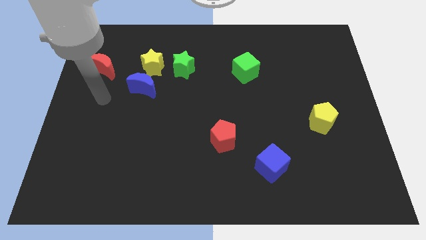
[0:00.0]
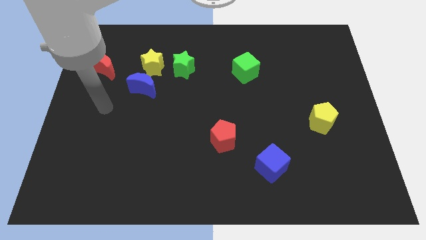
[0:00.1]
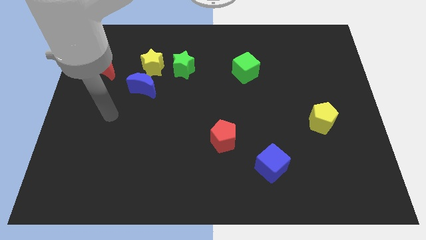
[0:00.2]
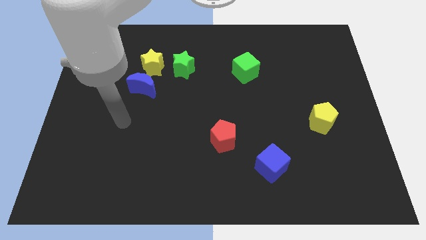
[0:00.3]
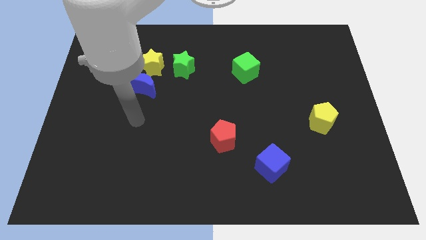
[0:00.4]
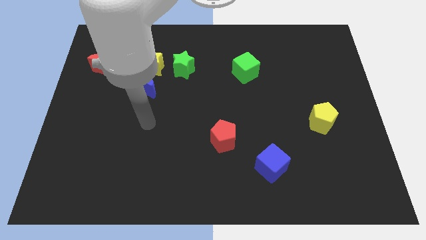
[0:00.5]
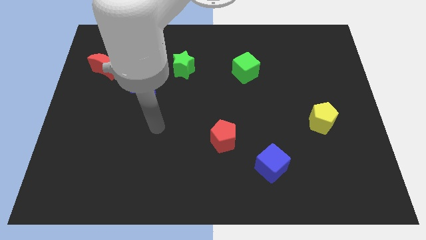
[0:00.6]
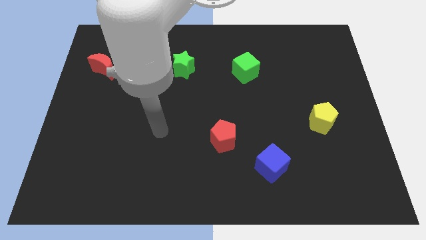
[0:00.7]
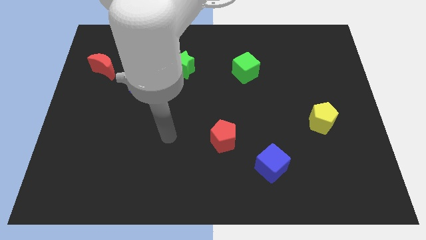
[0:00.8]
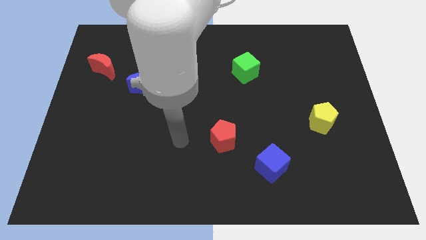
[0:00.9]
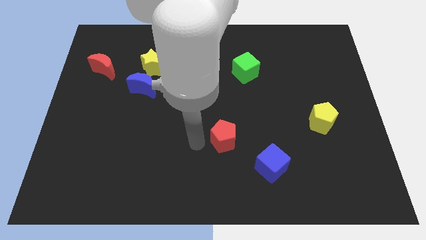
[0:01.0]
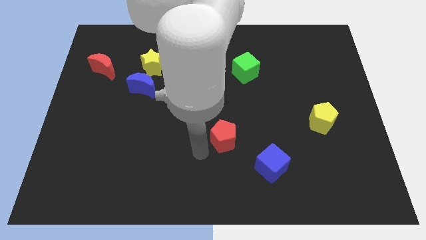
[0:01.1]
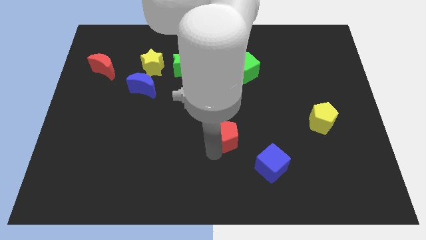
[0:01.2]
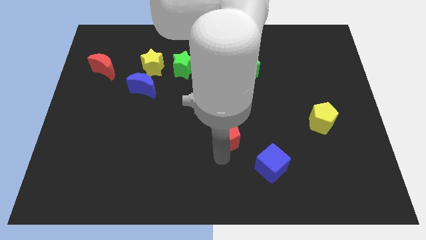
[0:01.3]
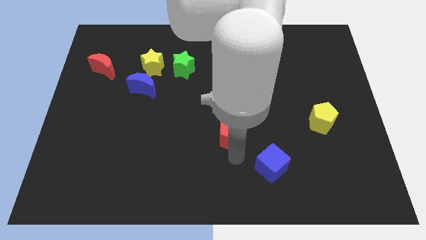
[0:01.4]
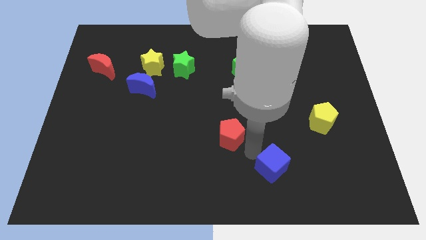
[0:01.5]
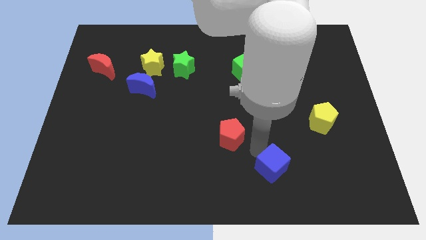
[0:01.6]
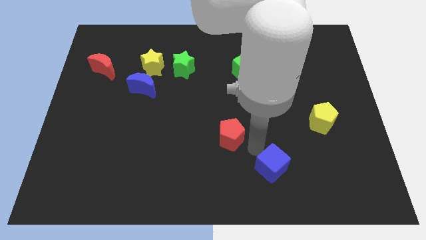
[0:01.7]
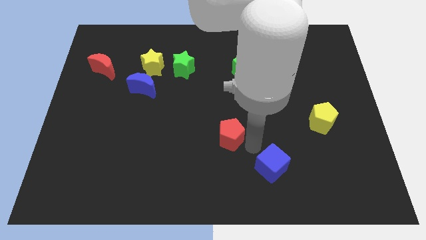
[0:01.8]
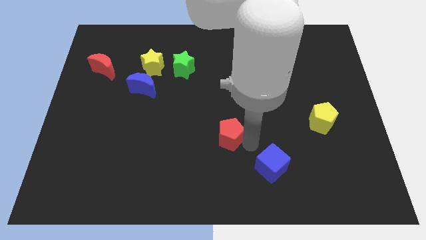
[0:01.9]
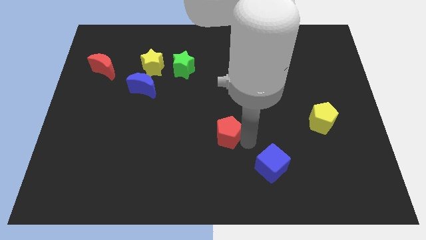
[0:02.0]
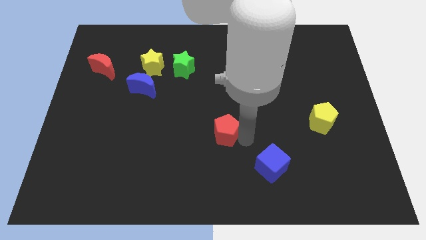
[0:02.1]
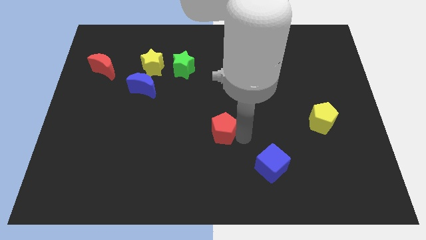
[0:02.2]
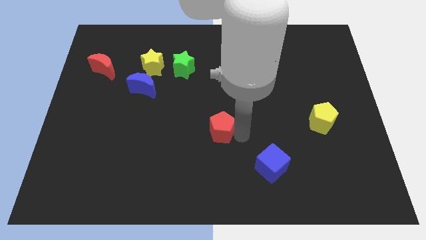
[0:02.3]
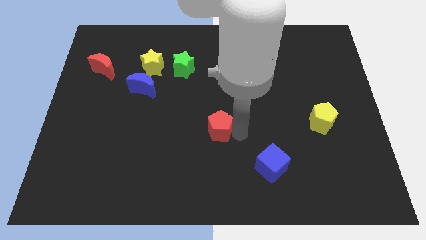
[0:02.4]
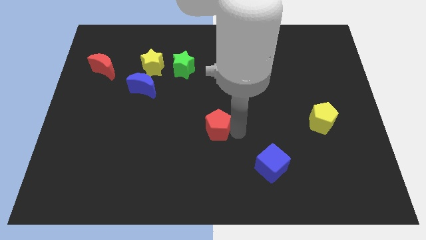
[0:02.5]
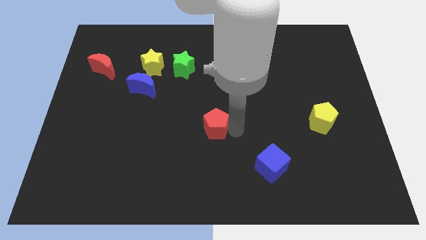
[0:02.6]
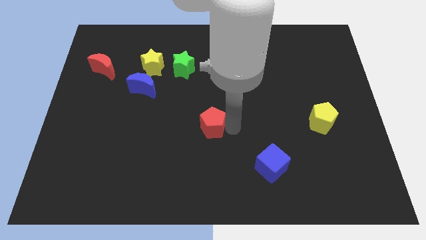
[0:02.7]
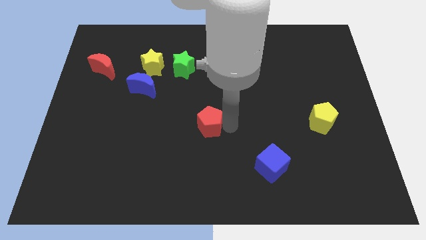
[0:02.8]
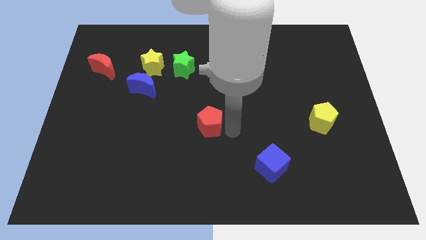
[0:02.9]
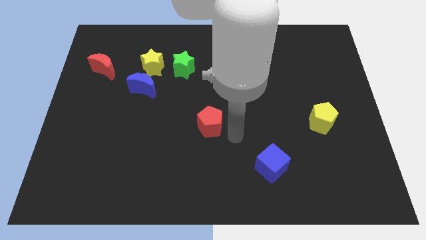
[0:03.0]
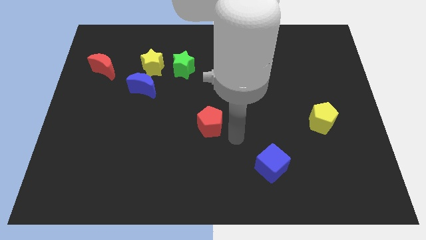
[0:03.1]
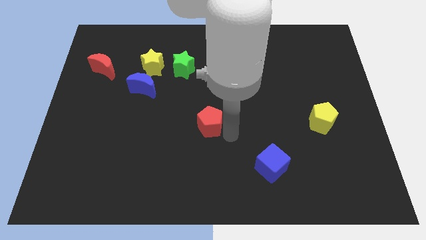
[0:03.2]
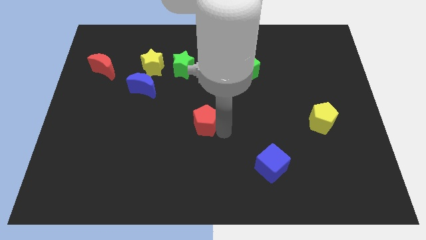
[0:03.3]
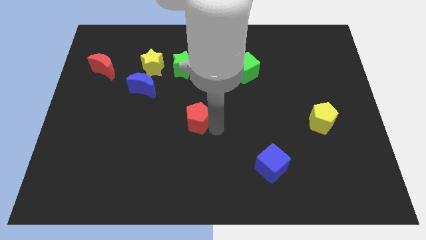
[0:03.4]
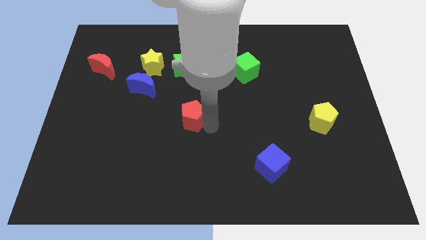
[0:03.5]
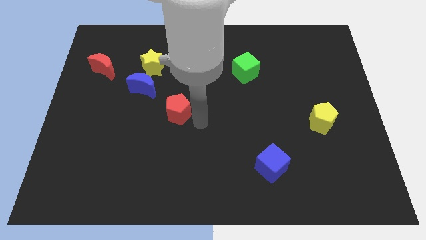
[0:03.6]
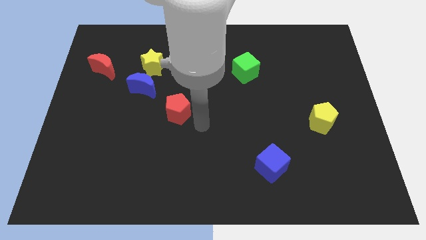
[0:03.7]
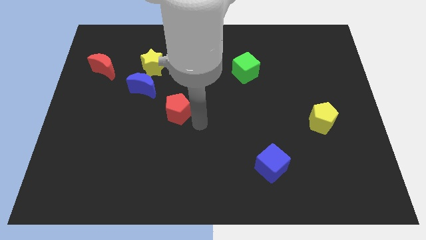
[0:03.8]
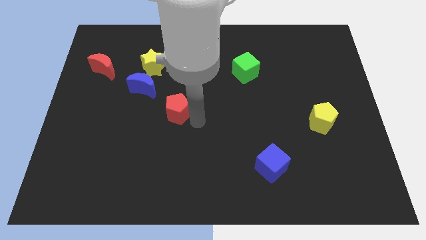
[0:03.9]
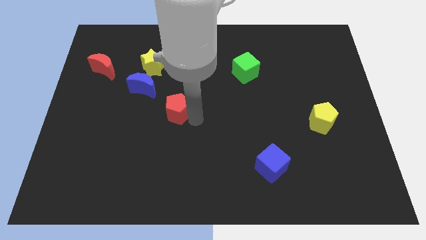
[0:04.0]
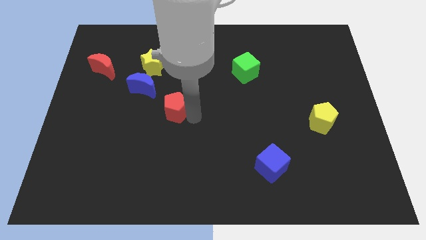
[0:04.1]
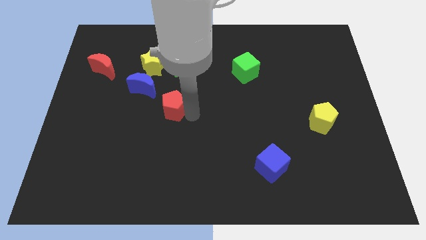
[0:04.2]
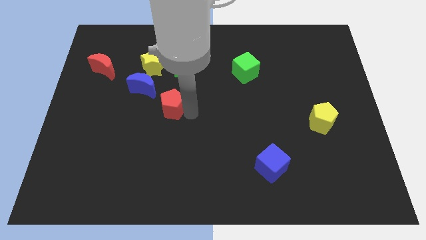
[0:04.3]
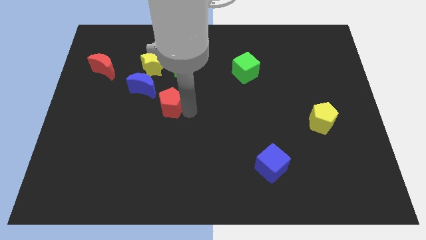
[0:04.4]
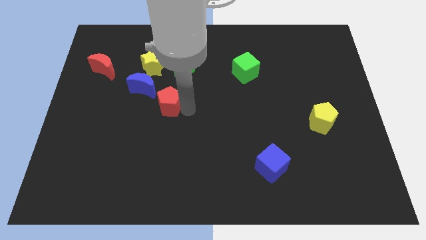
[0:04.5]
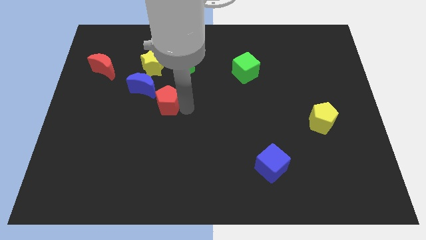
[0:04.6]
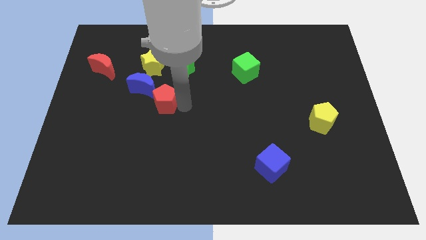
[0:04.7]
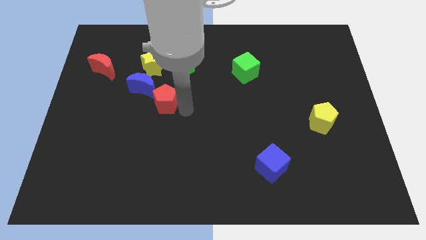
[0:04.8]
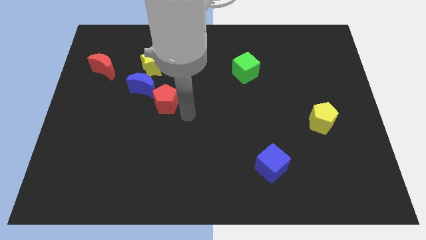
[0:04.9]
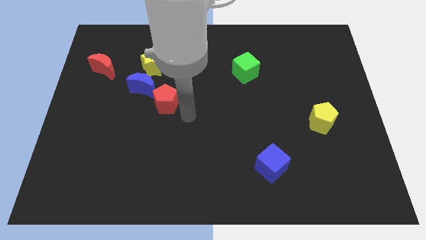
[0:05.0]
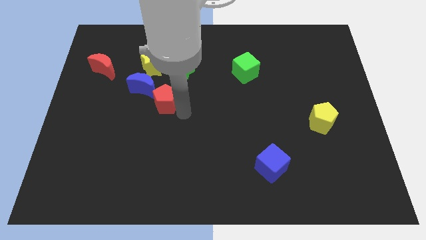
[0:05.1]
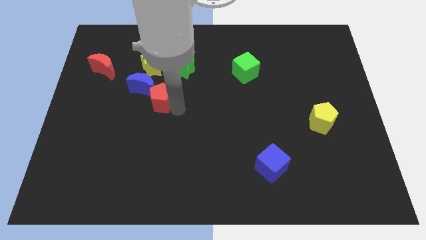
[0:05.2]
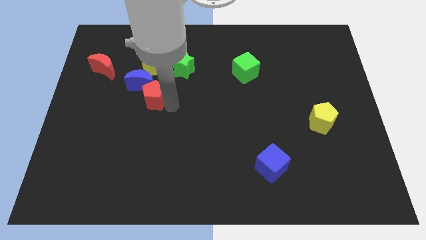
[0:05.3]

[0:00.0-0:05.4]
slide the red pentagon to the blue moon

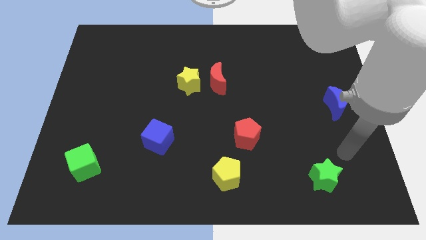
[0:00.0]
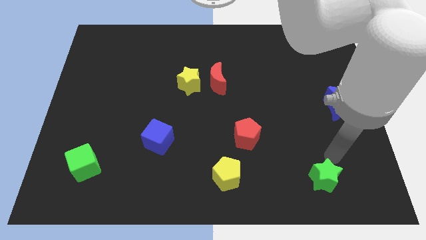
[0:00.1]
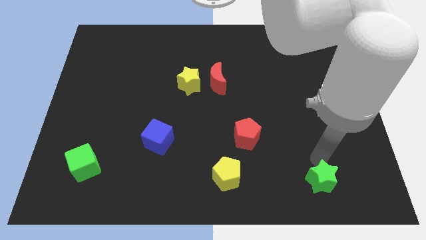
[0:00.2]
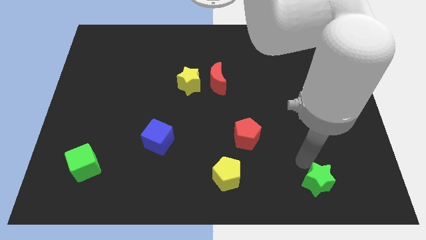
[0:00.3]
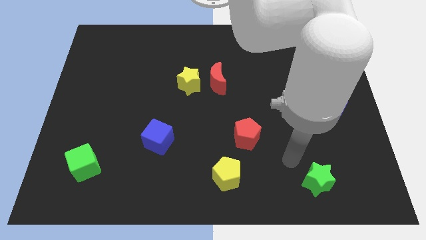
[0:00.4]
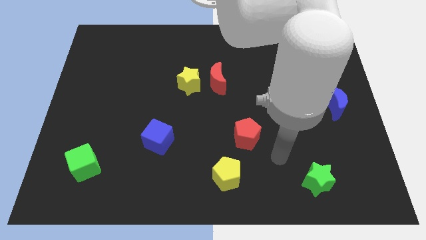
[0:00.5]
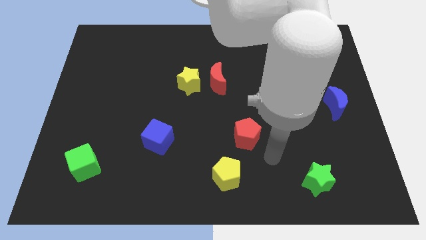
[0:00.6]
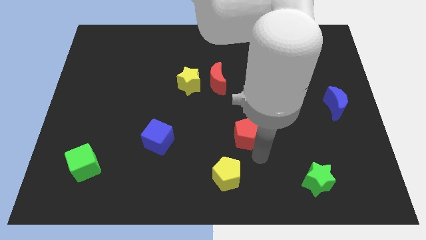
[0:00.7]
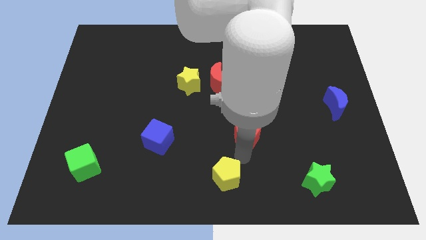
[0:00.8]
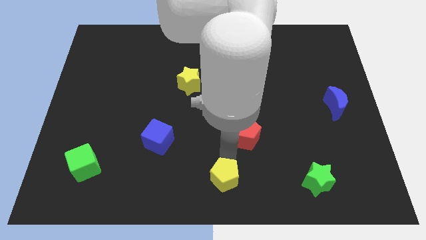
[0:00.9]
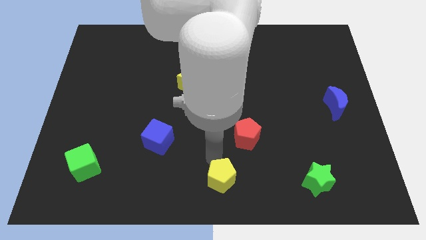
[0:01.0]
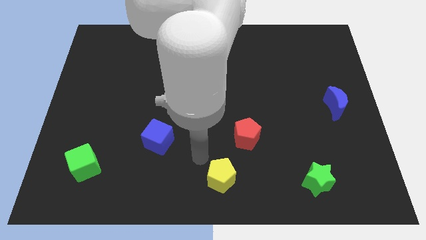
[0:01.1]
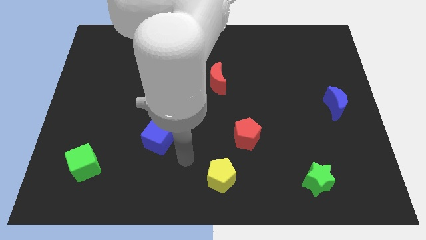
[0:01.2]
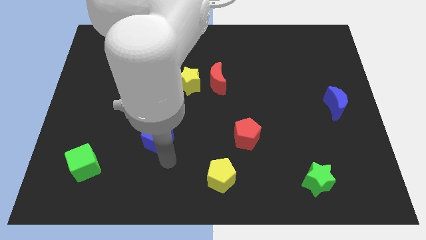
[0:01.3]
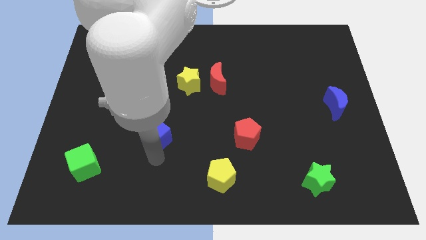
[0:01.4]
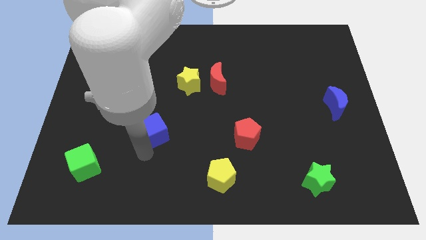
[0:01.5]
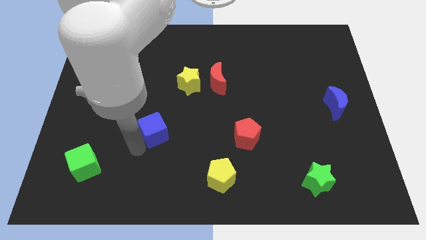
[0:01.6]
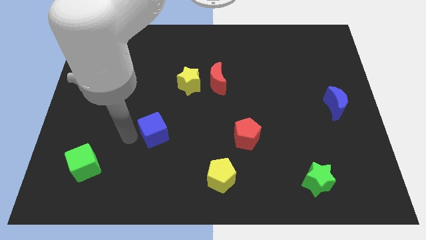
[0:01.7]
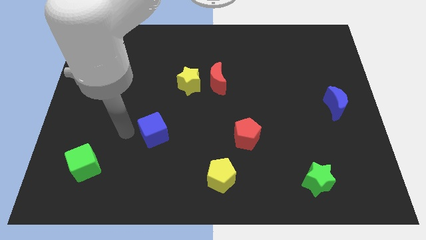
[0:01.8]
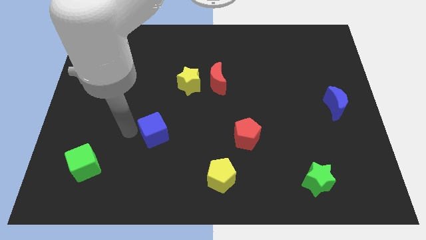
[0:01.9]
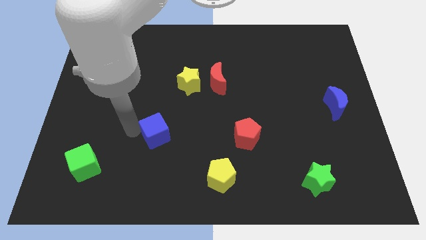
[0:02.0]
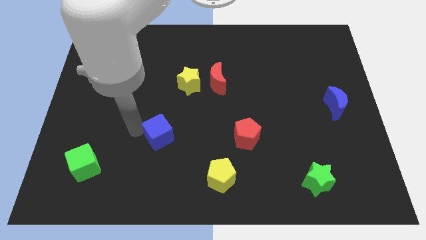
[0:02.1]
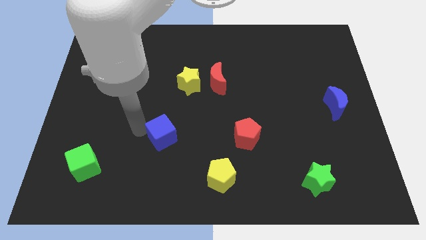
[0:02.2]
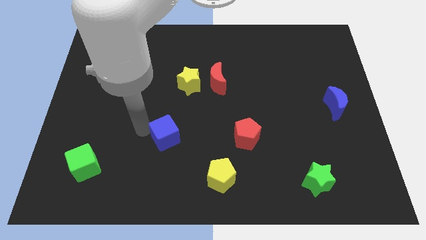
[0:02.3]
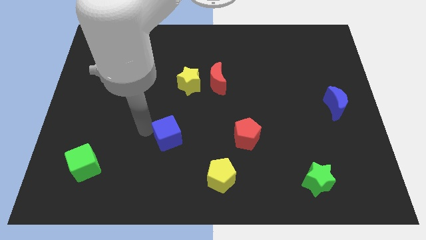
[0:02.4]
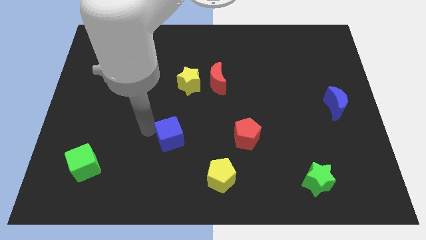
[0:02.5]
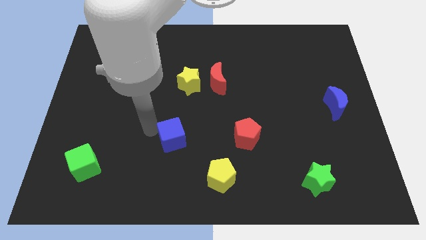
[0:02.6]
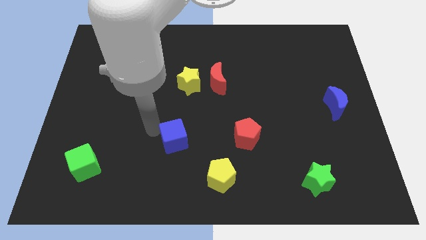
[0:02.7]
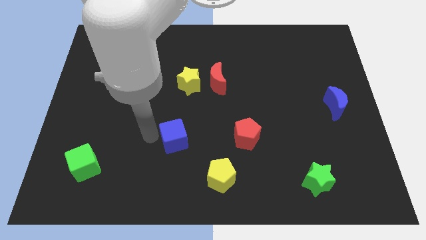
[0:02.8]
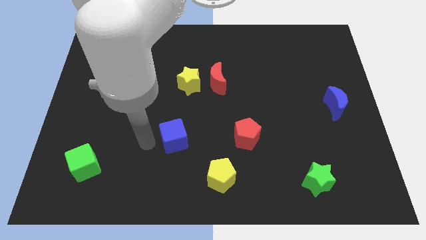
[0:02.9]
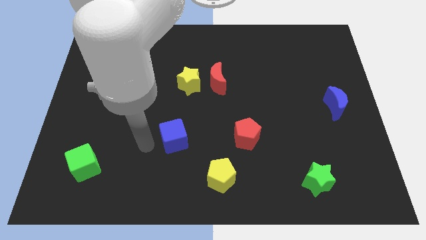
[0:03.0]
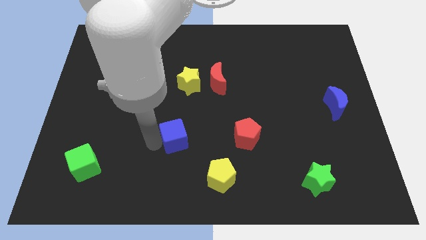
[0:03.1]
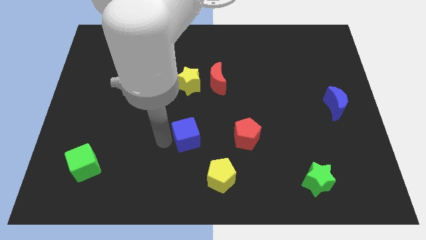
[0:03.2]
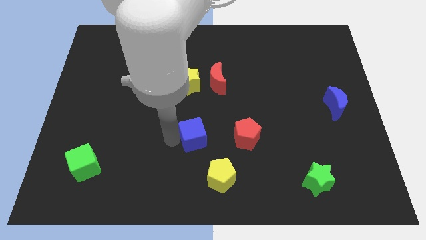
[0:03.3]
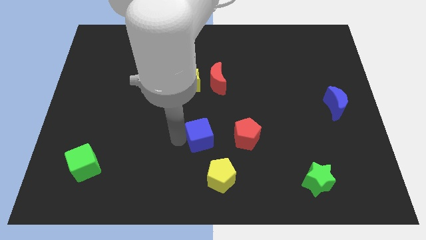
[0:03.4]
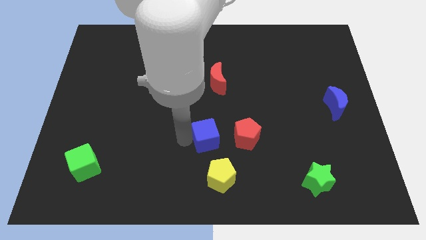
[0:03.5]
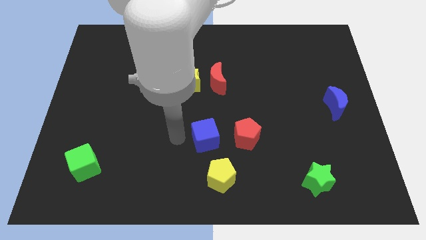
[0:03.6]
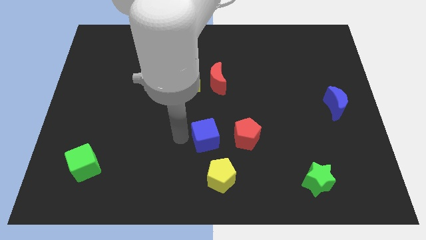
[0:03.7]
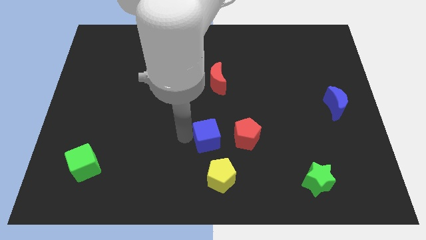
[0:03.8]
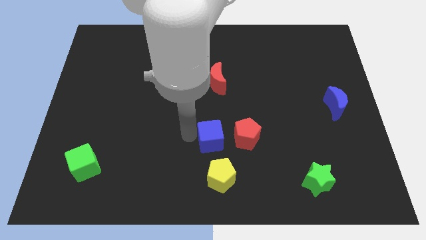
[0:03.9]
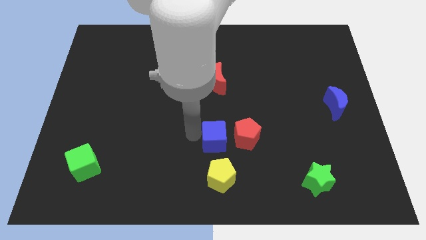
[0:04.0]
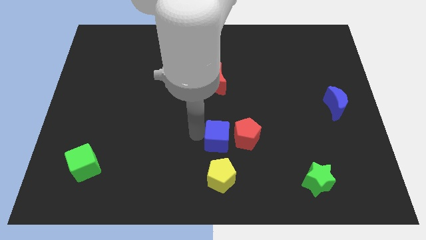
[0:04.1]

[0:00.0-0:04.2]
put the blue cube towards the red pentagon
